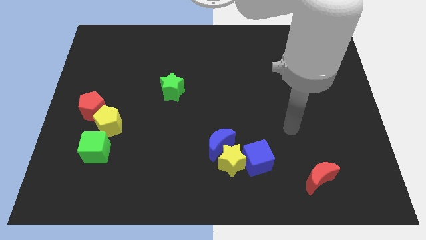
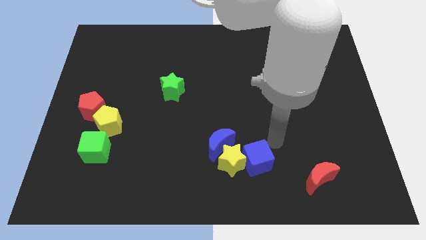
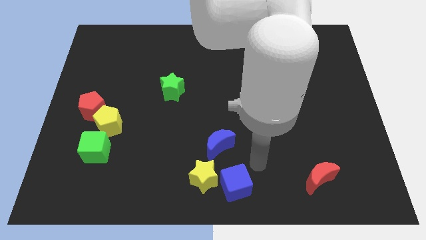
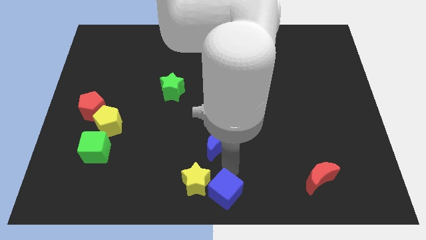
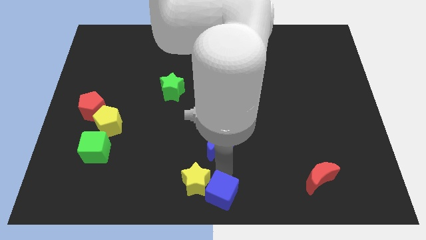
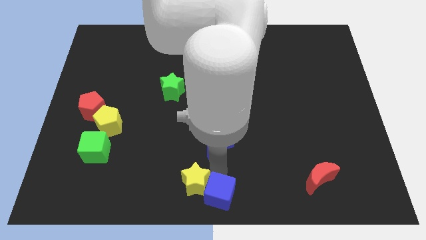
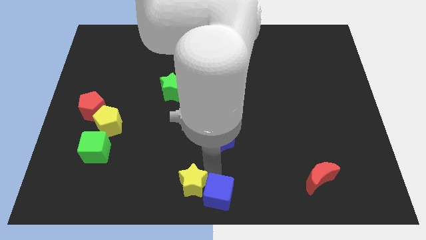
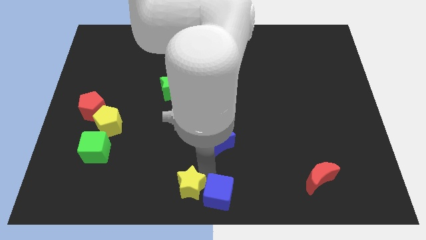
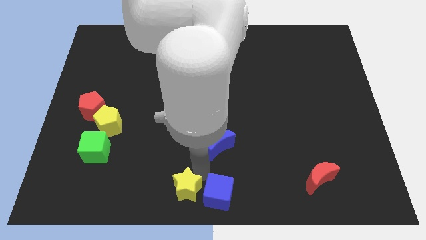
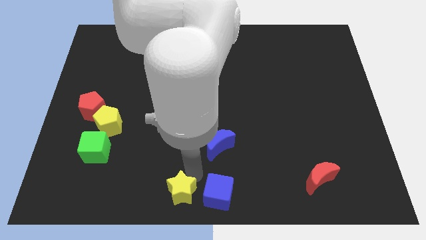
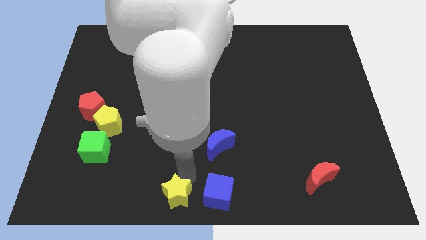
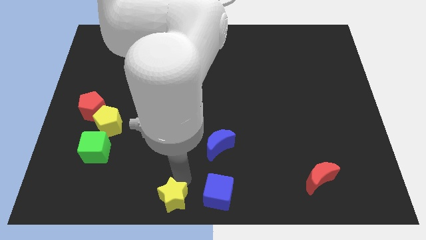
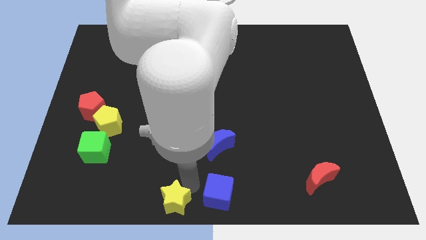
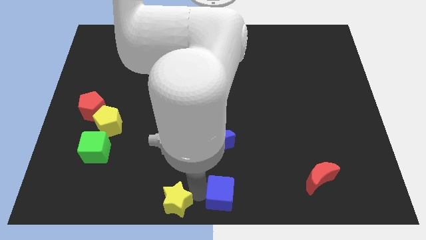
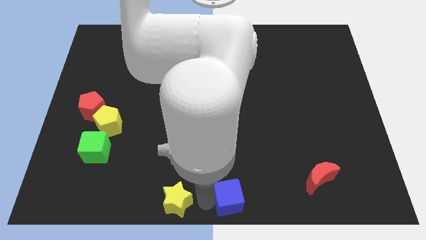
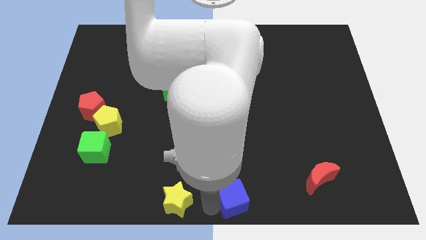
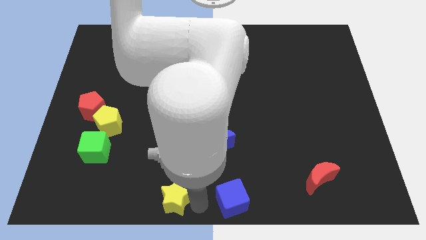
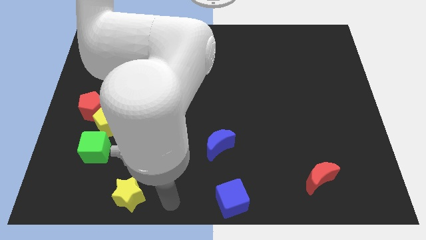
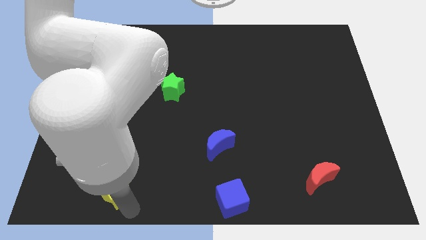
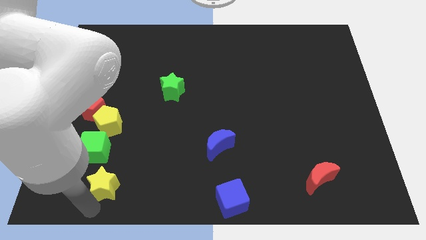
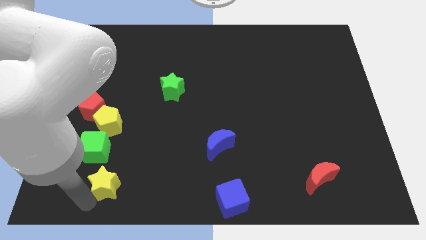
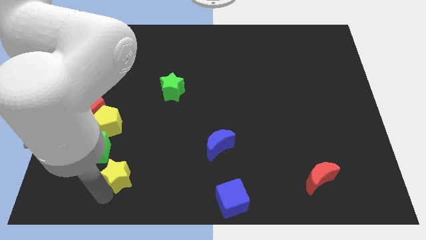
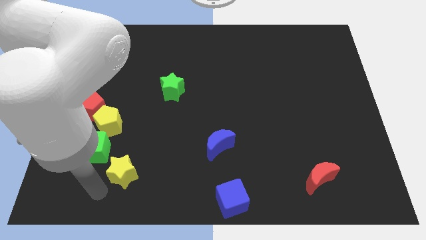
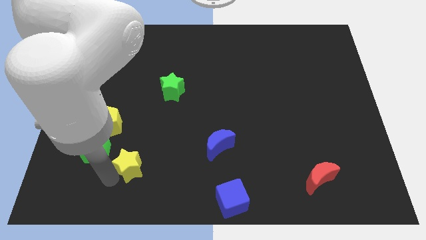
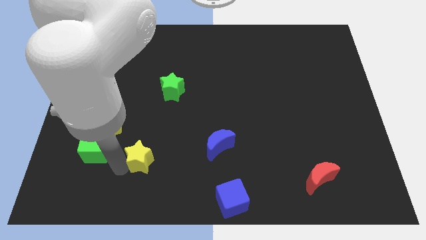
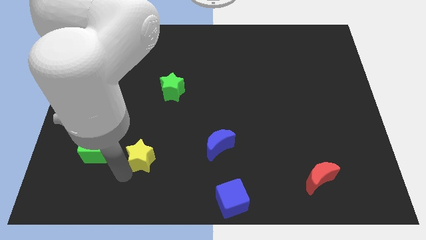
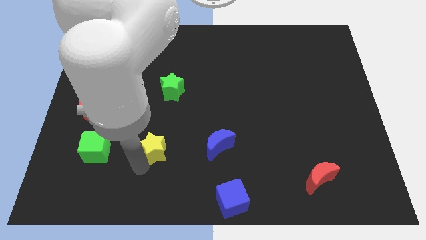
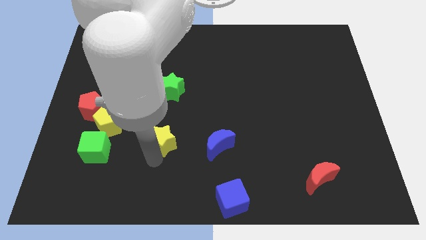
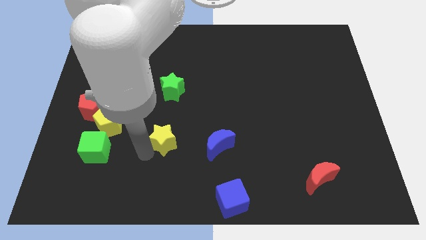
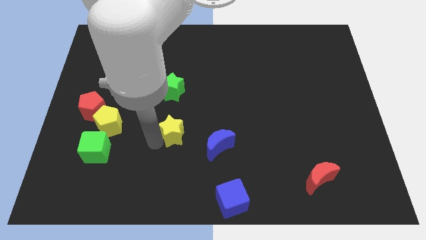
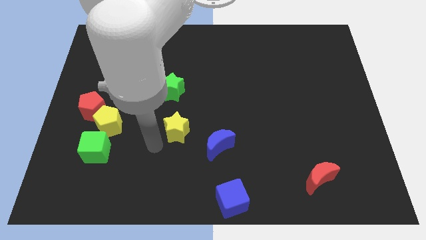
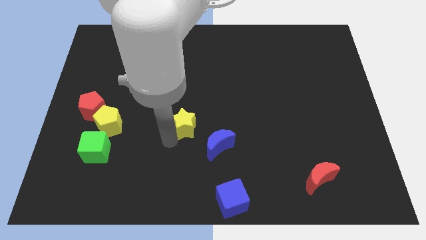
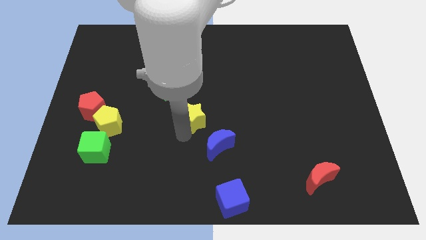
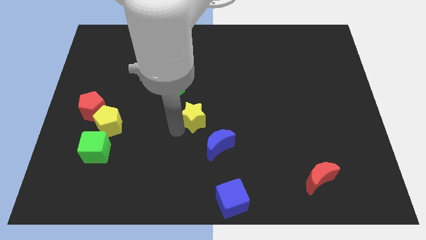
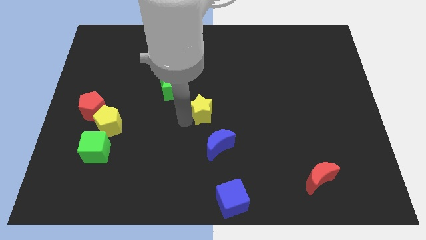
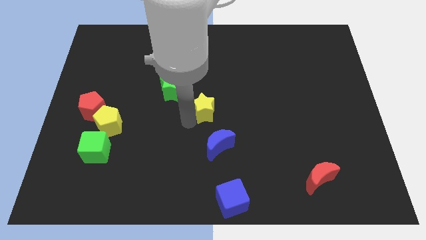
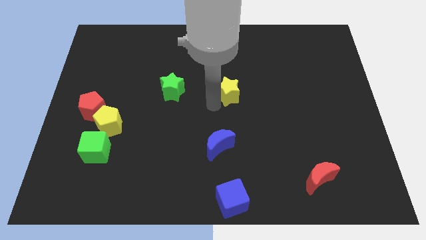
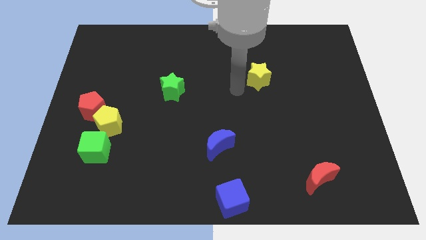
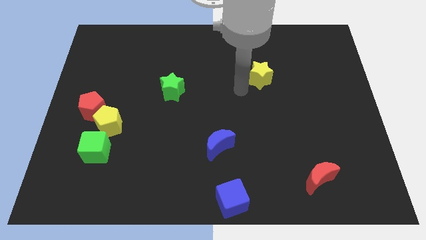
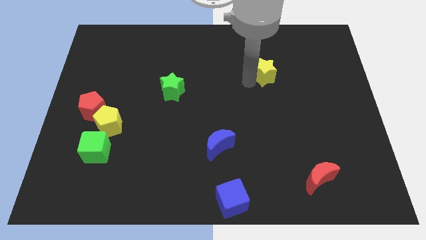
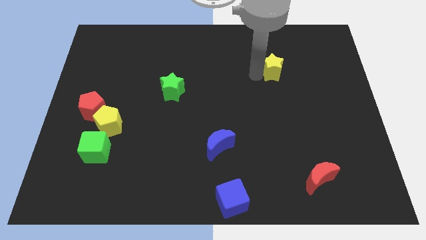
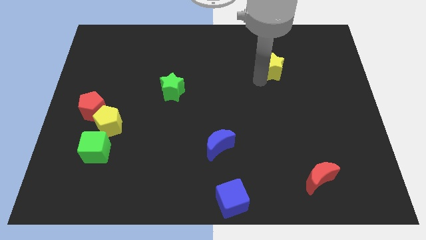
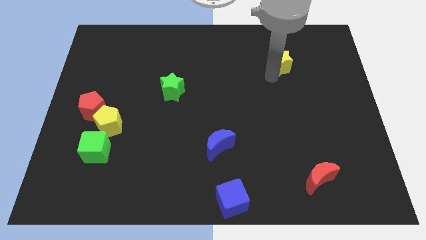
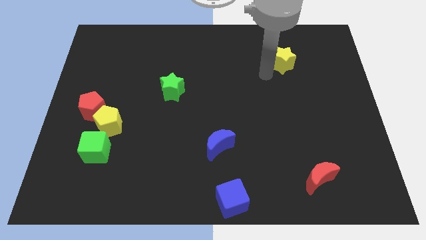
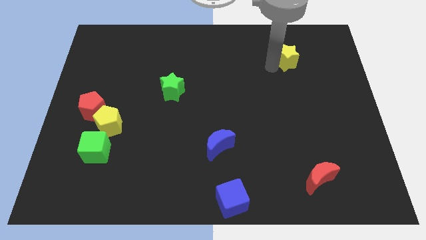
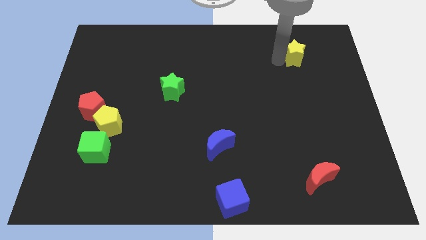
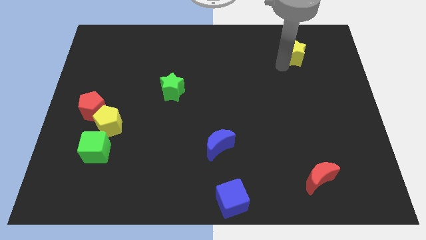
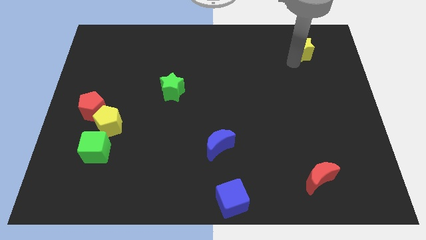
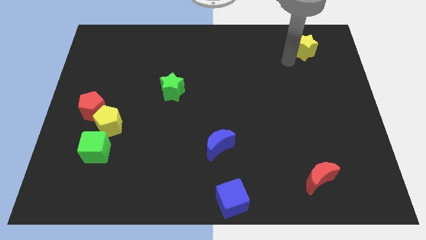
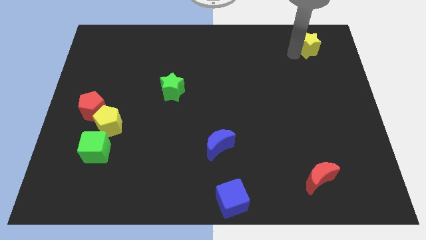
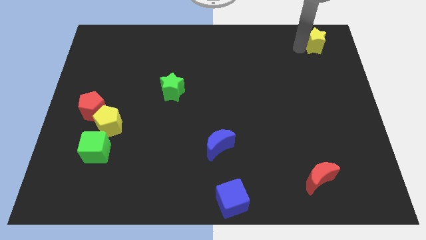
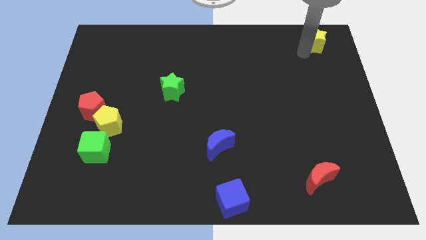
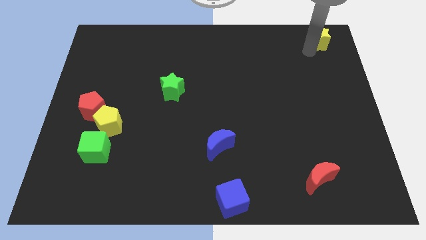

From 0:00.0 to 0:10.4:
push the yellow star to the top right
